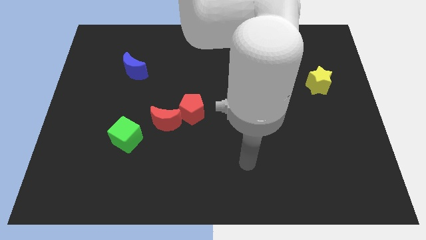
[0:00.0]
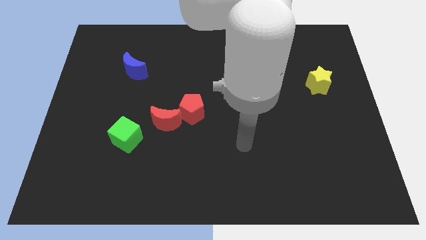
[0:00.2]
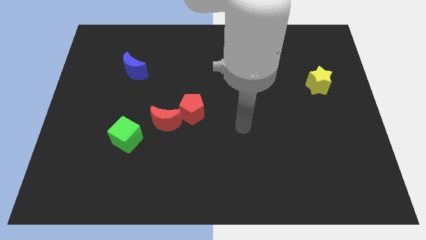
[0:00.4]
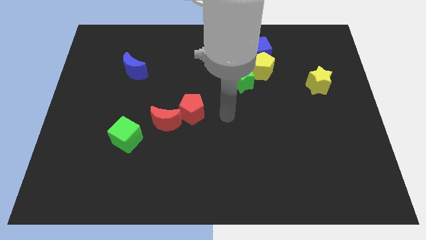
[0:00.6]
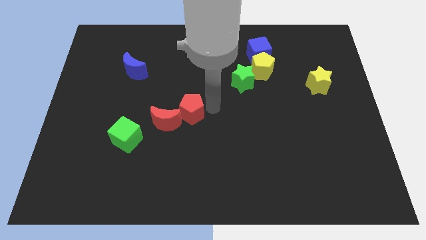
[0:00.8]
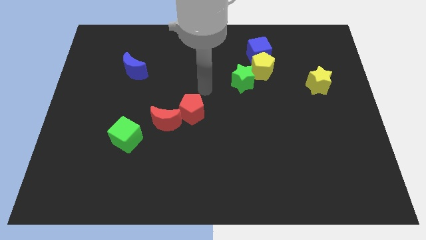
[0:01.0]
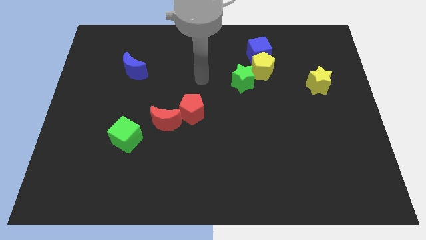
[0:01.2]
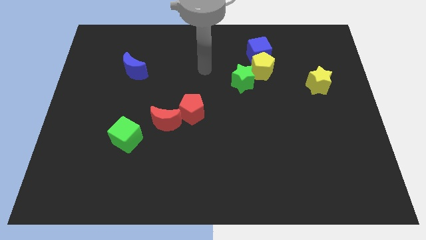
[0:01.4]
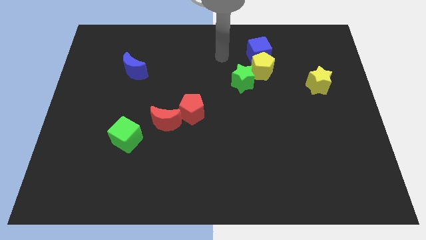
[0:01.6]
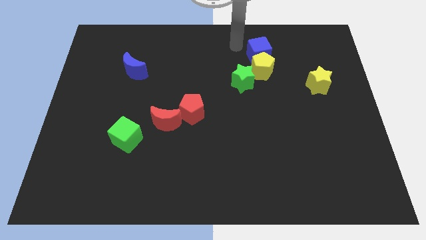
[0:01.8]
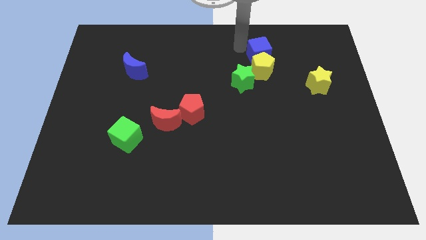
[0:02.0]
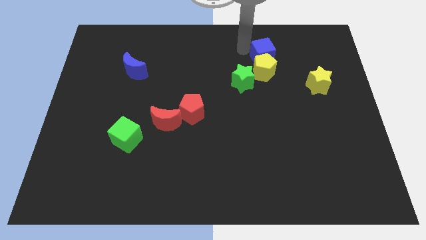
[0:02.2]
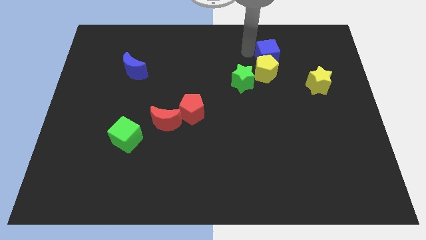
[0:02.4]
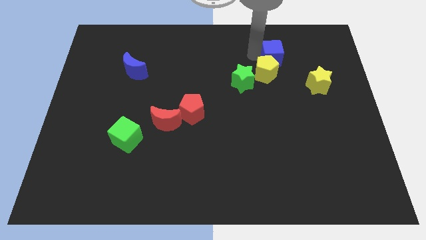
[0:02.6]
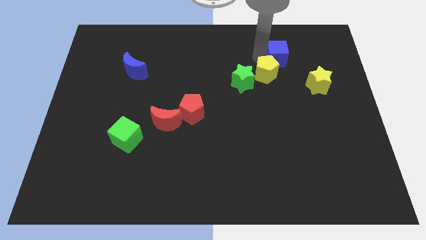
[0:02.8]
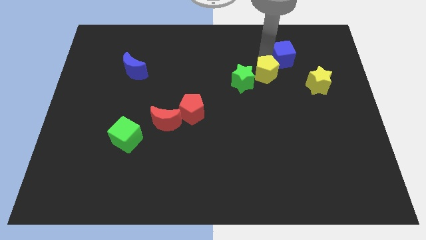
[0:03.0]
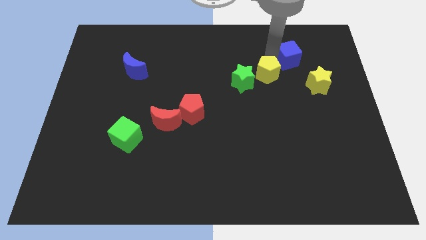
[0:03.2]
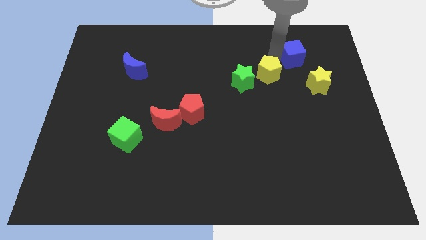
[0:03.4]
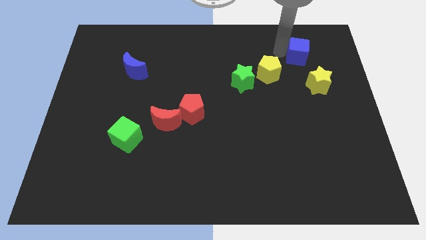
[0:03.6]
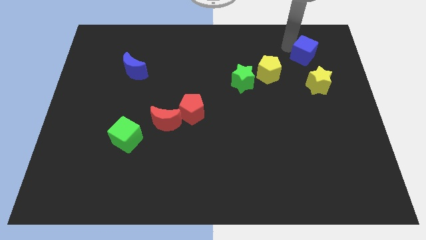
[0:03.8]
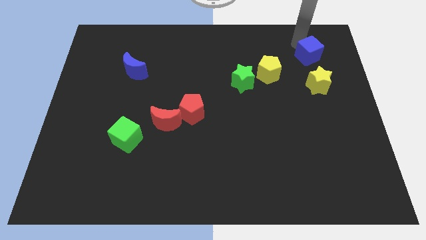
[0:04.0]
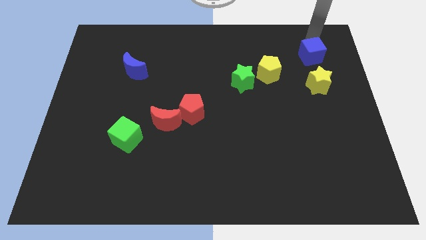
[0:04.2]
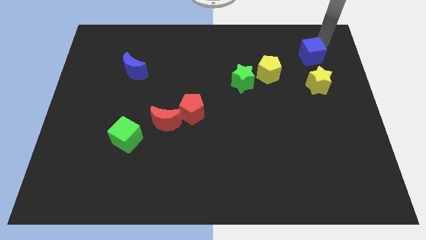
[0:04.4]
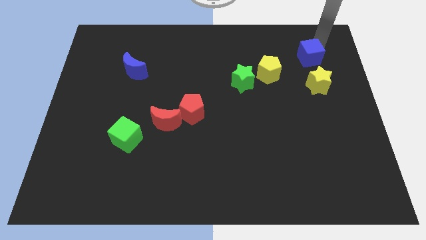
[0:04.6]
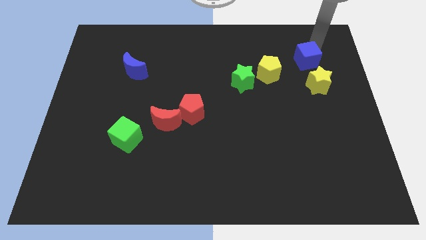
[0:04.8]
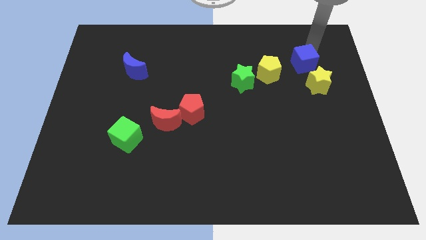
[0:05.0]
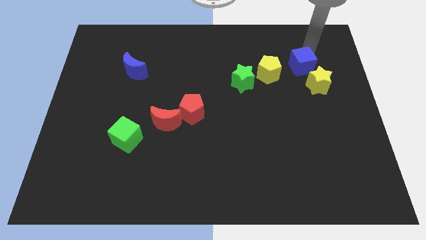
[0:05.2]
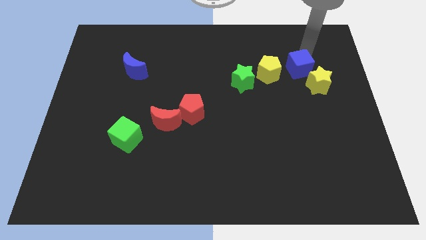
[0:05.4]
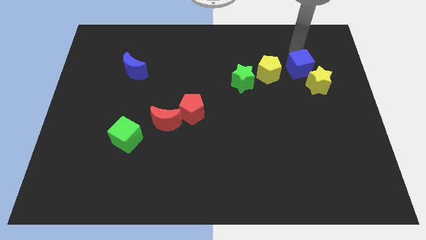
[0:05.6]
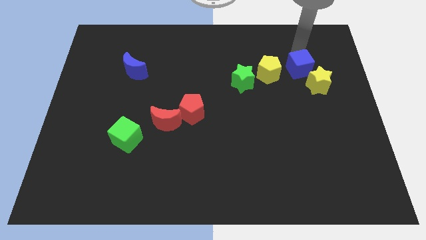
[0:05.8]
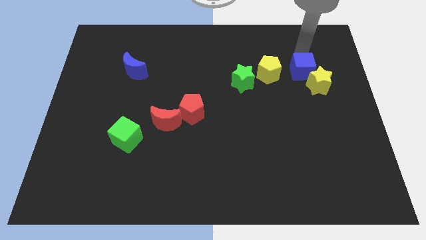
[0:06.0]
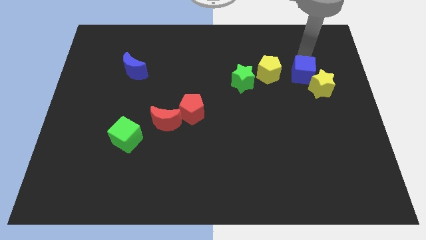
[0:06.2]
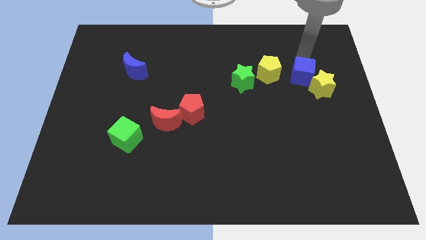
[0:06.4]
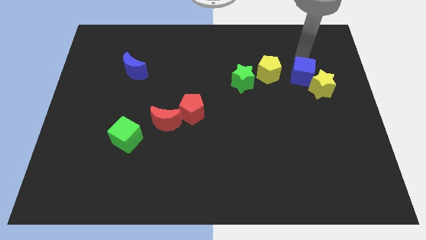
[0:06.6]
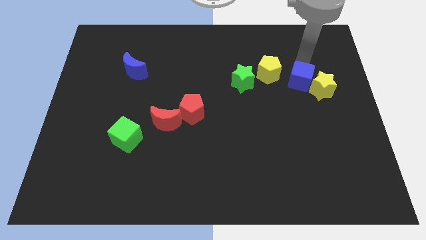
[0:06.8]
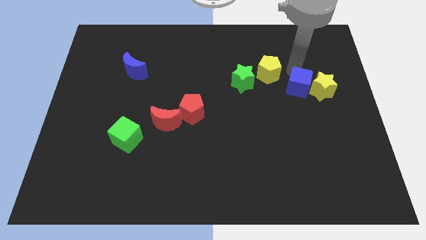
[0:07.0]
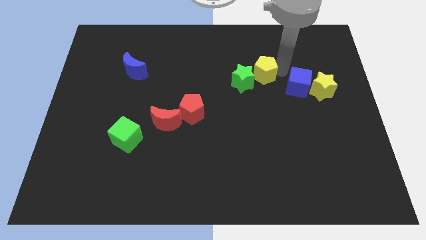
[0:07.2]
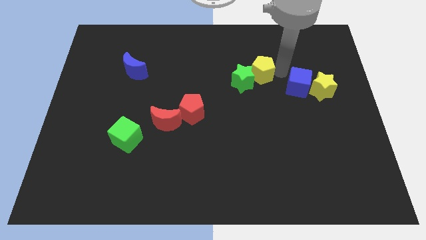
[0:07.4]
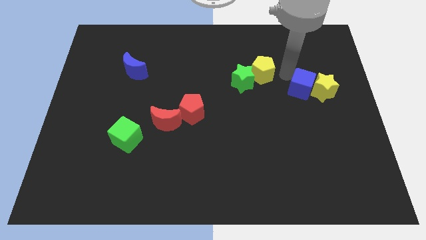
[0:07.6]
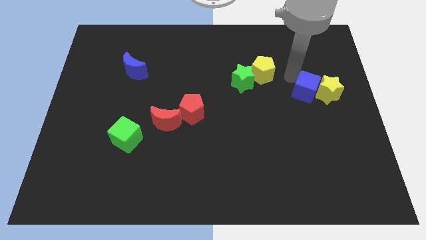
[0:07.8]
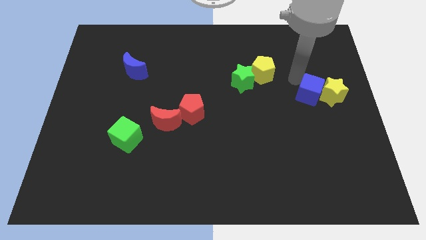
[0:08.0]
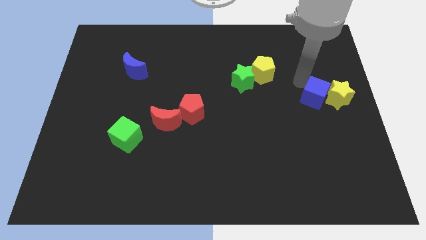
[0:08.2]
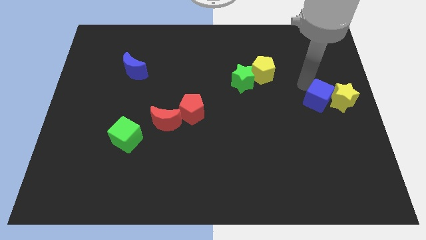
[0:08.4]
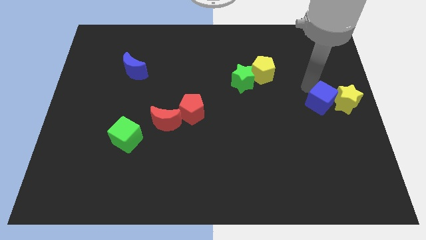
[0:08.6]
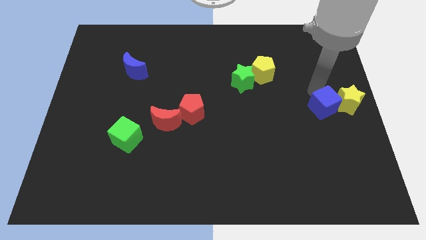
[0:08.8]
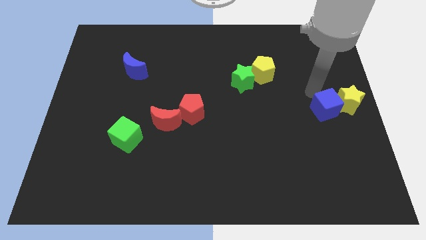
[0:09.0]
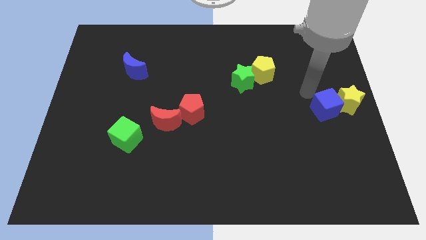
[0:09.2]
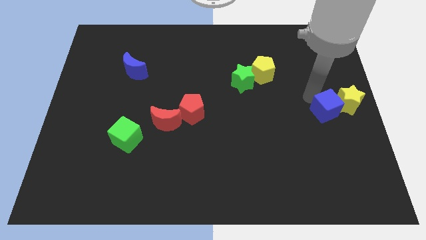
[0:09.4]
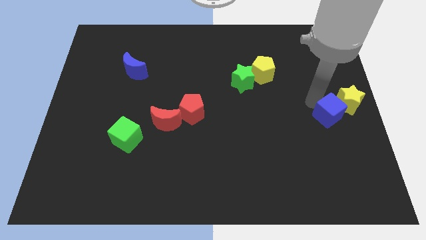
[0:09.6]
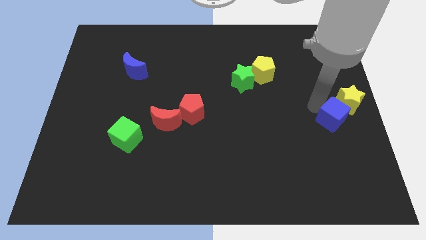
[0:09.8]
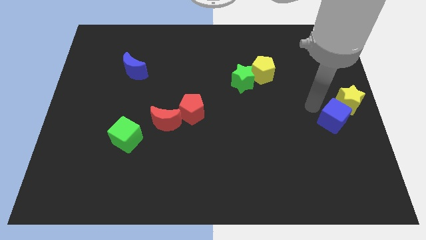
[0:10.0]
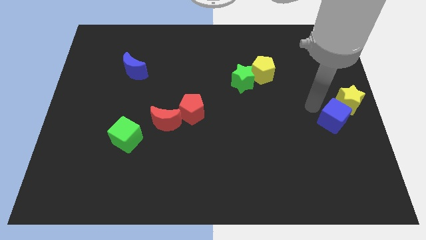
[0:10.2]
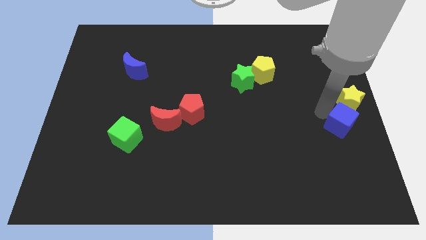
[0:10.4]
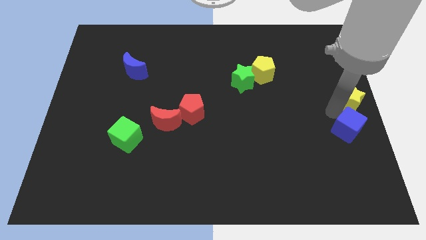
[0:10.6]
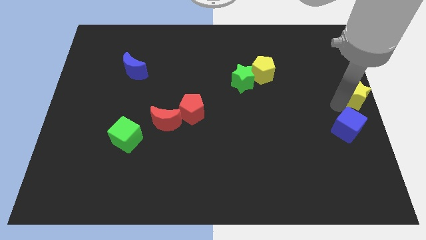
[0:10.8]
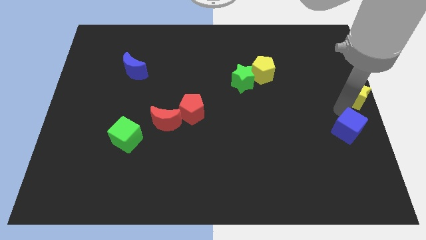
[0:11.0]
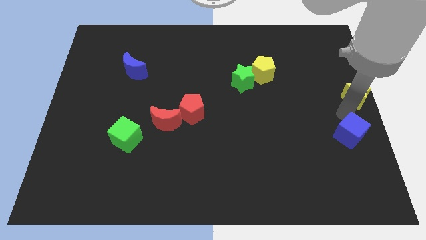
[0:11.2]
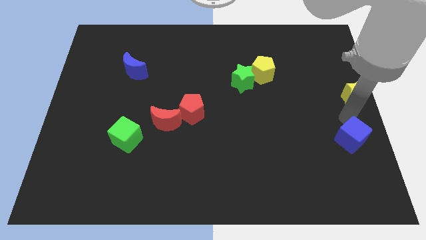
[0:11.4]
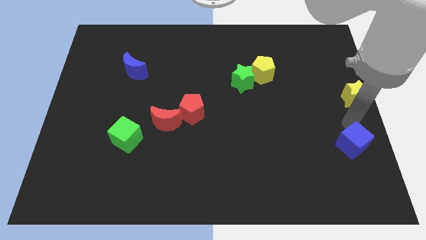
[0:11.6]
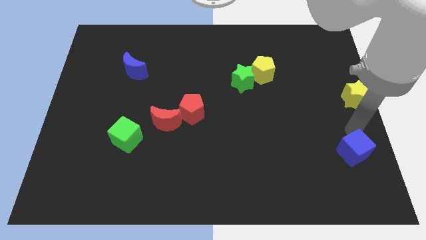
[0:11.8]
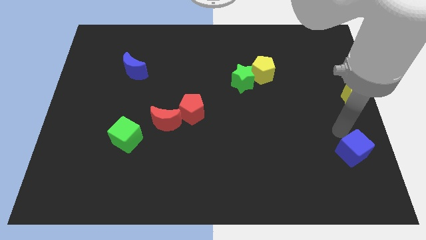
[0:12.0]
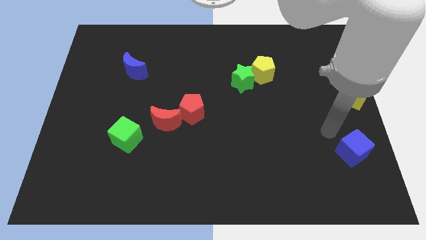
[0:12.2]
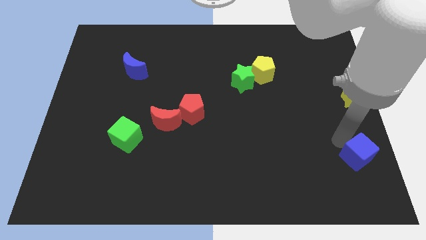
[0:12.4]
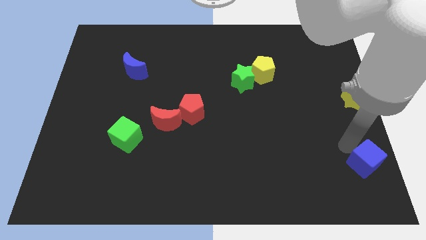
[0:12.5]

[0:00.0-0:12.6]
move the blue cube to the bottom right of the board
